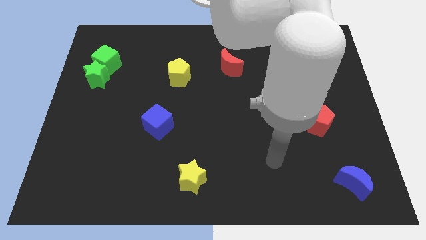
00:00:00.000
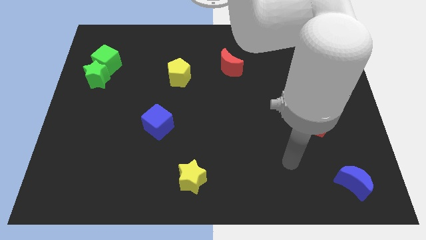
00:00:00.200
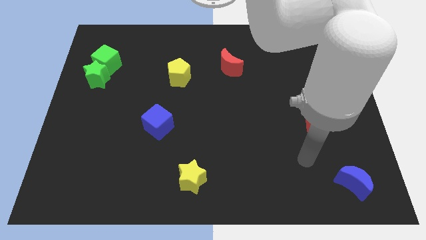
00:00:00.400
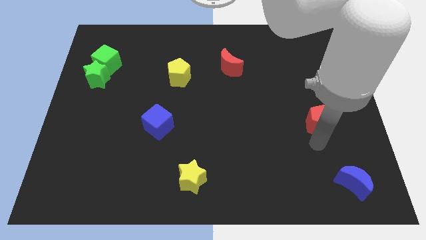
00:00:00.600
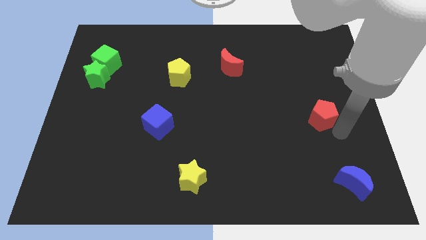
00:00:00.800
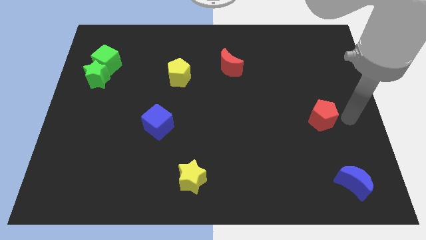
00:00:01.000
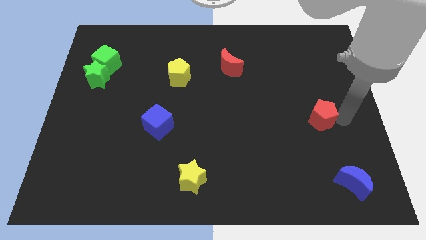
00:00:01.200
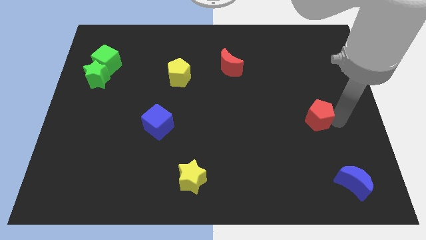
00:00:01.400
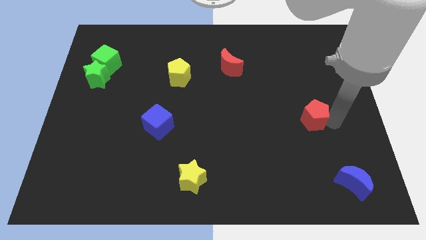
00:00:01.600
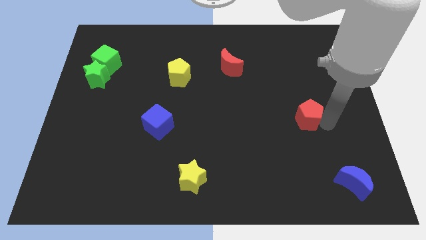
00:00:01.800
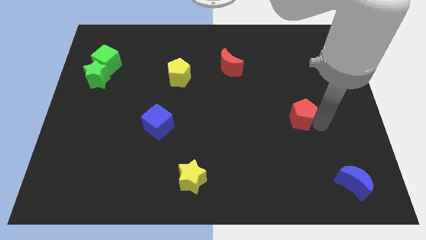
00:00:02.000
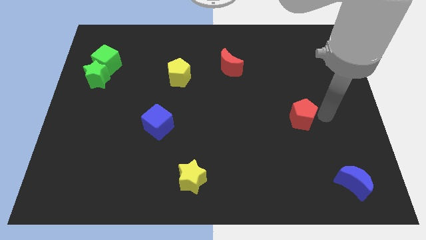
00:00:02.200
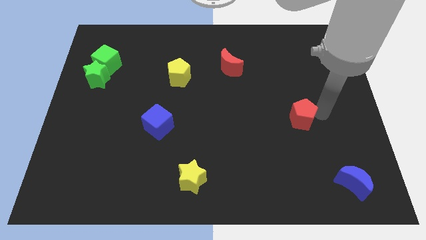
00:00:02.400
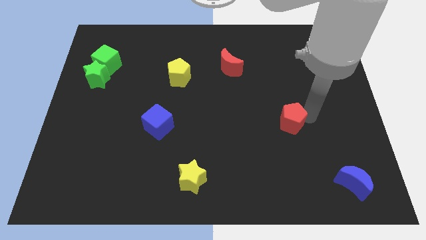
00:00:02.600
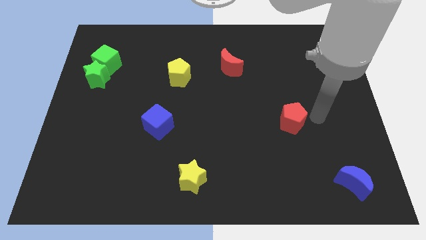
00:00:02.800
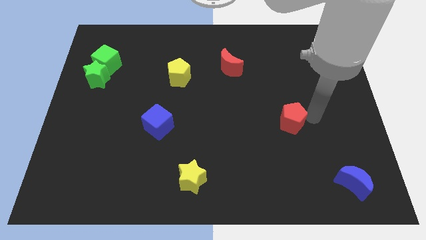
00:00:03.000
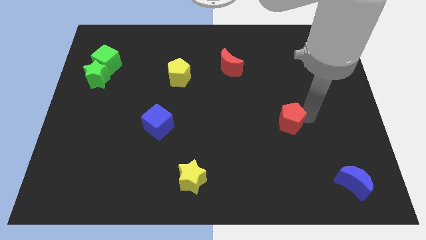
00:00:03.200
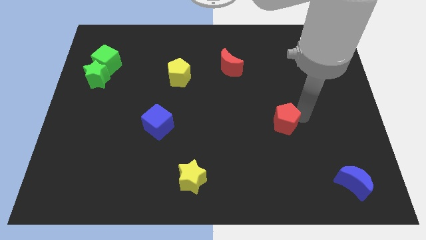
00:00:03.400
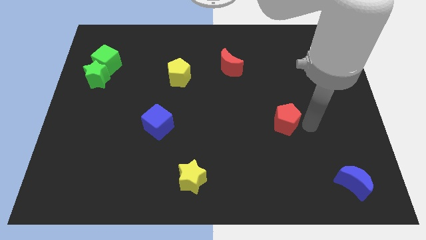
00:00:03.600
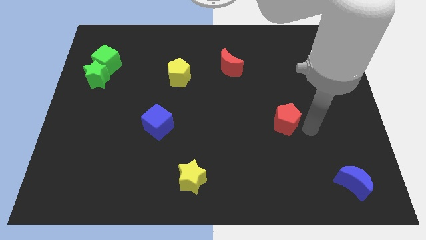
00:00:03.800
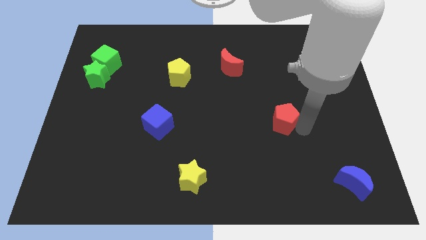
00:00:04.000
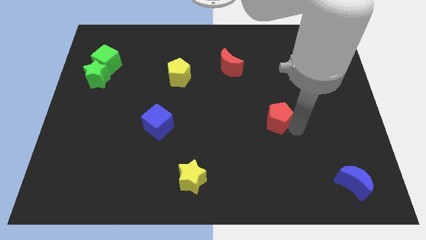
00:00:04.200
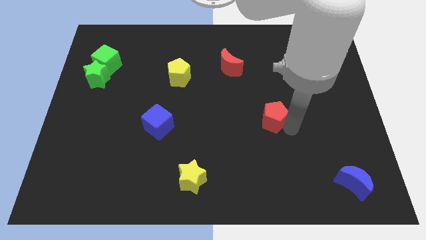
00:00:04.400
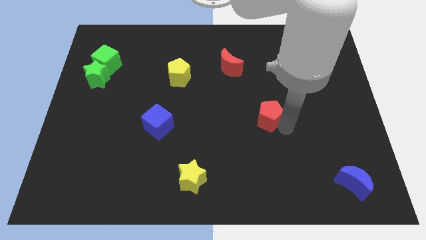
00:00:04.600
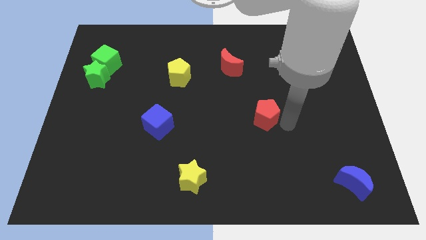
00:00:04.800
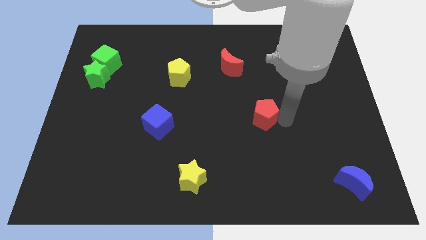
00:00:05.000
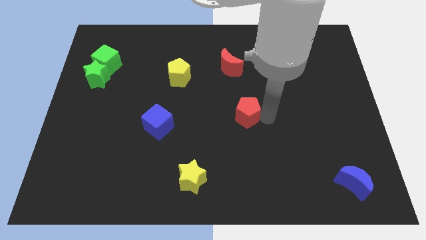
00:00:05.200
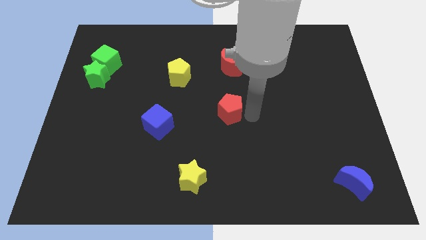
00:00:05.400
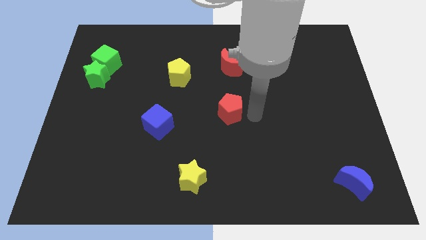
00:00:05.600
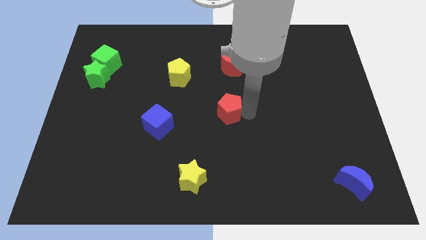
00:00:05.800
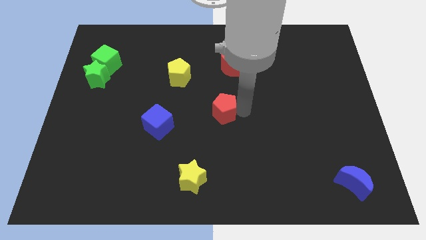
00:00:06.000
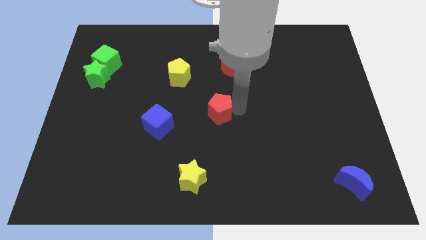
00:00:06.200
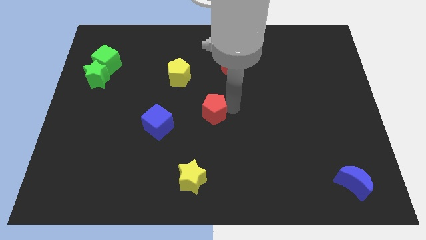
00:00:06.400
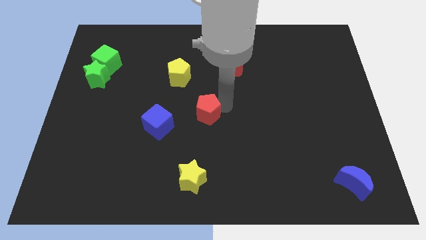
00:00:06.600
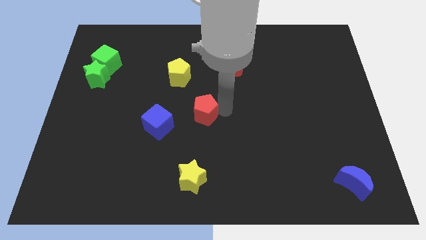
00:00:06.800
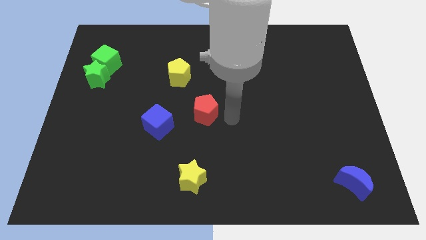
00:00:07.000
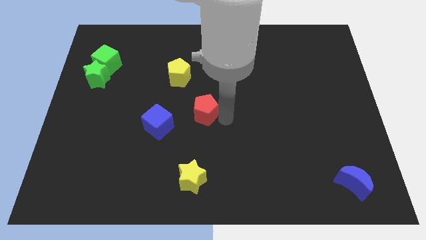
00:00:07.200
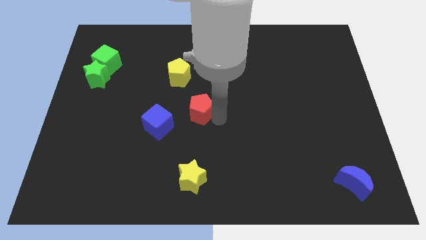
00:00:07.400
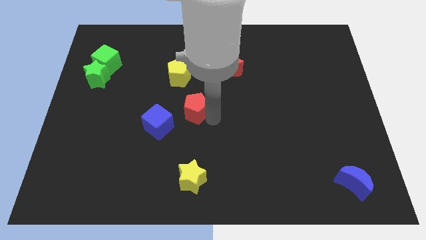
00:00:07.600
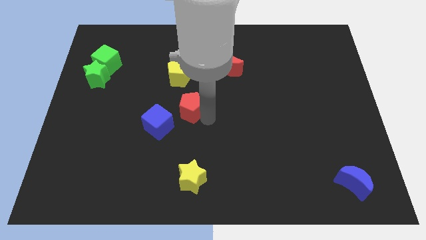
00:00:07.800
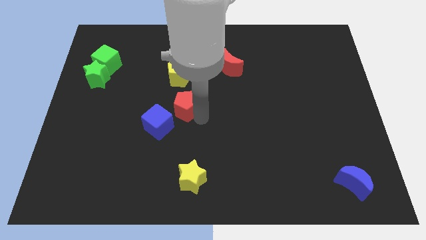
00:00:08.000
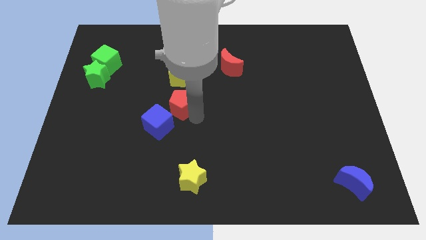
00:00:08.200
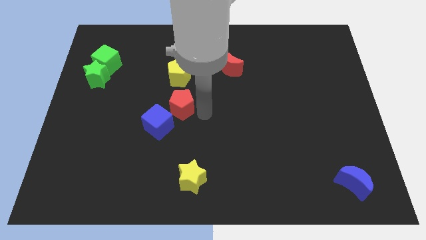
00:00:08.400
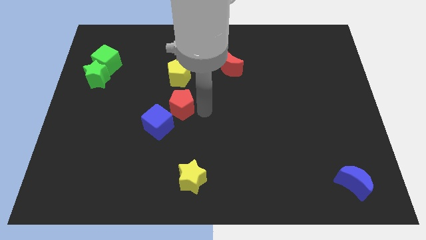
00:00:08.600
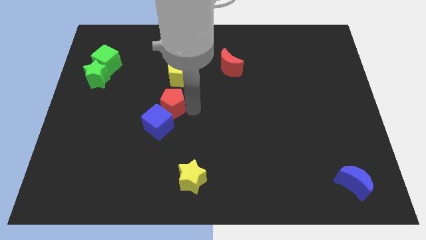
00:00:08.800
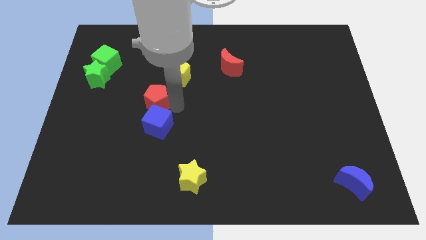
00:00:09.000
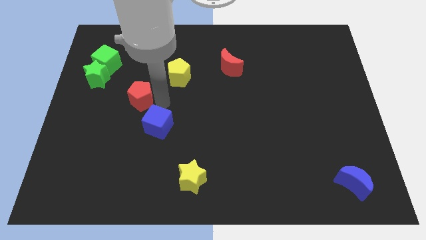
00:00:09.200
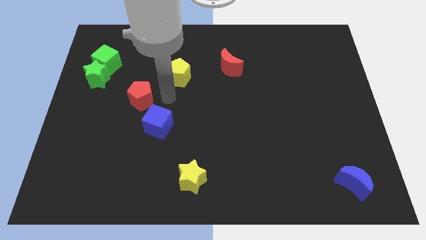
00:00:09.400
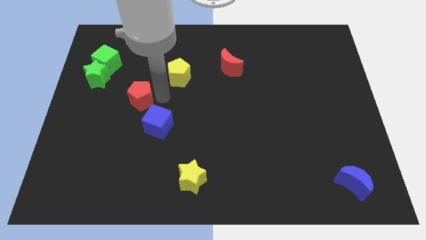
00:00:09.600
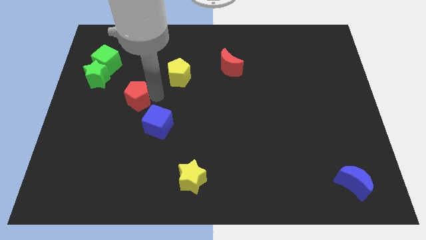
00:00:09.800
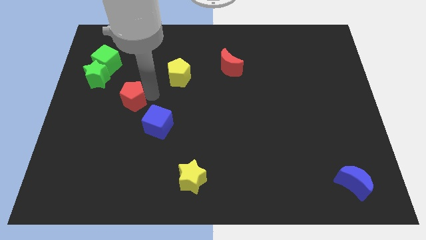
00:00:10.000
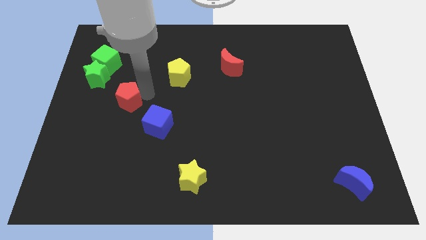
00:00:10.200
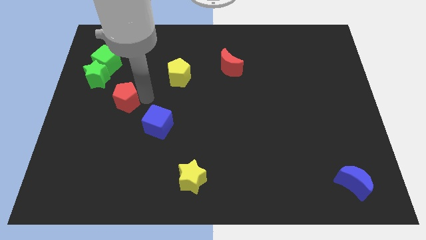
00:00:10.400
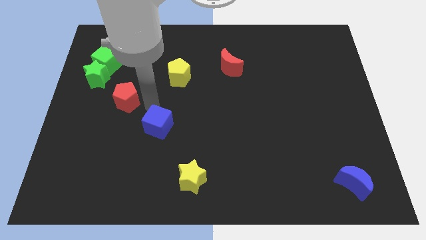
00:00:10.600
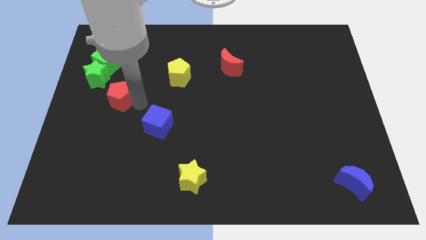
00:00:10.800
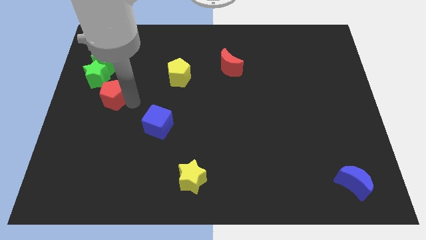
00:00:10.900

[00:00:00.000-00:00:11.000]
push the red pentagon below the green cube

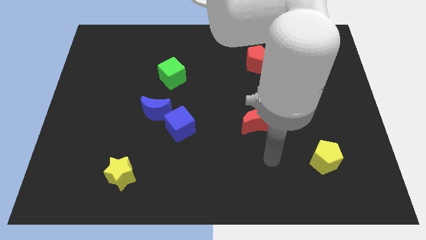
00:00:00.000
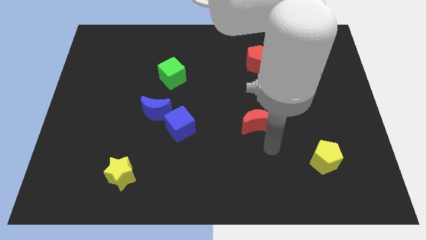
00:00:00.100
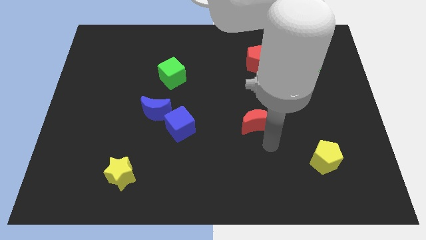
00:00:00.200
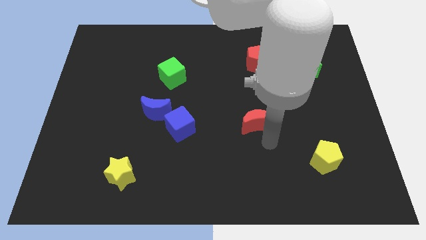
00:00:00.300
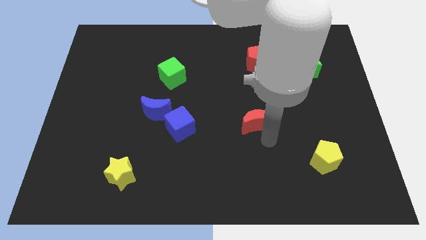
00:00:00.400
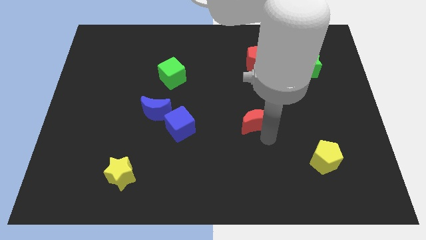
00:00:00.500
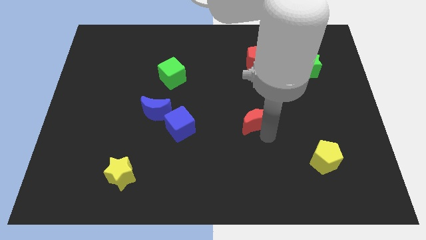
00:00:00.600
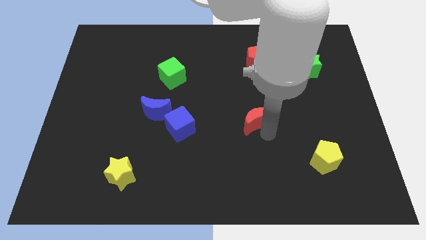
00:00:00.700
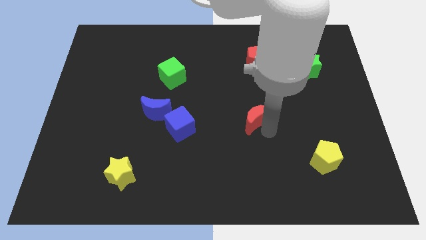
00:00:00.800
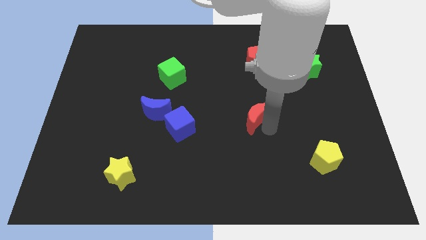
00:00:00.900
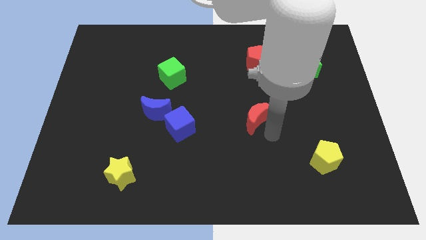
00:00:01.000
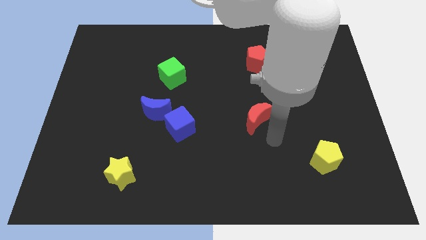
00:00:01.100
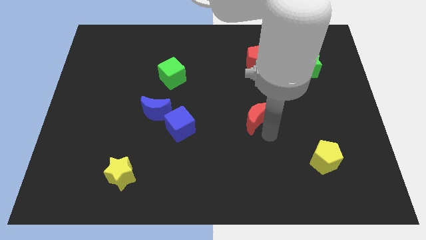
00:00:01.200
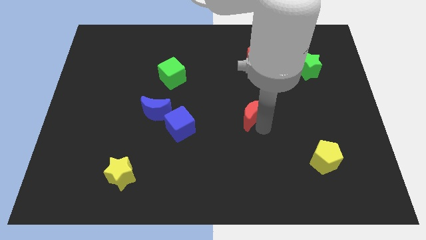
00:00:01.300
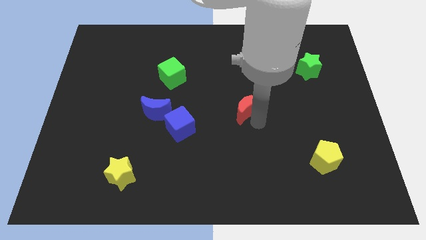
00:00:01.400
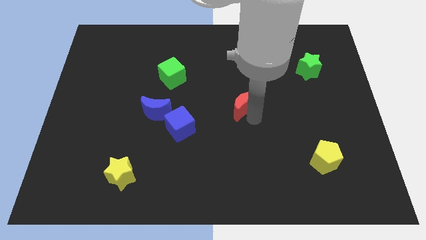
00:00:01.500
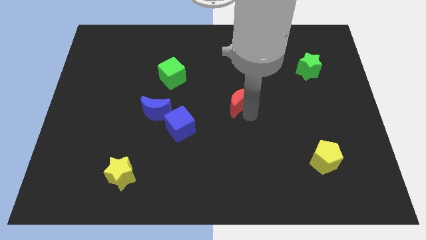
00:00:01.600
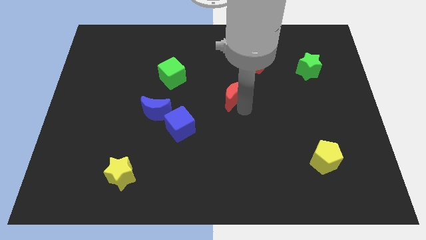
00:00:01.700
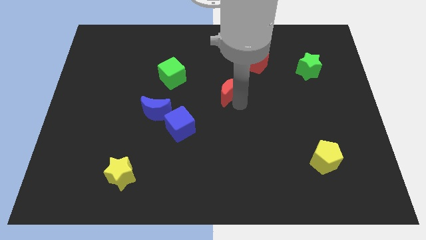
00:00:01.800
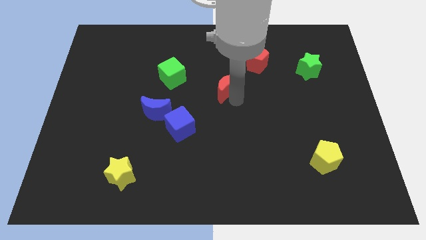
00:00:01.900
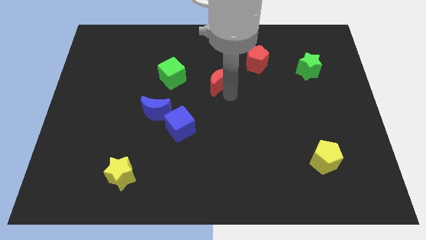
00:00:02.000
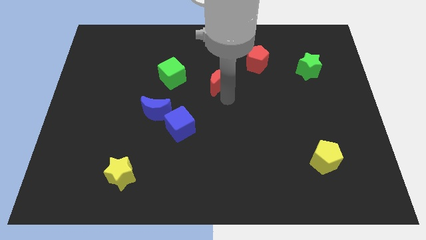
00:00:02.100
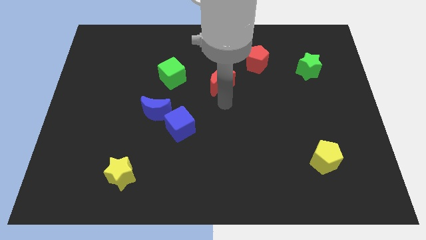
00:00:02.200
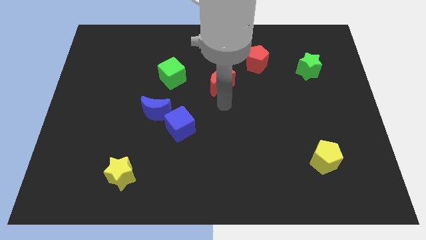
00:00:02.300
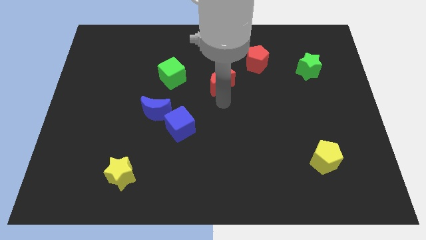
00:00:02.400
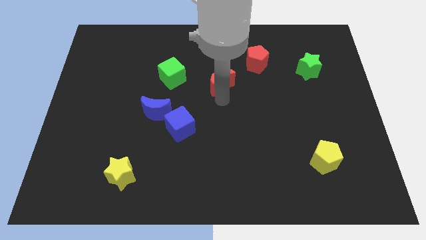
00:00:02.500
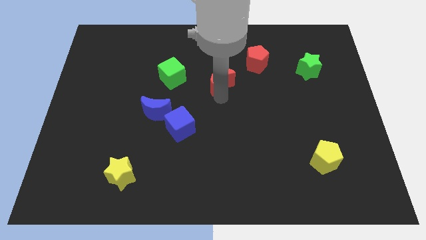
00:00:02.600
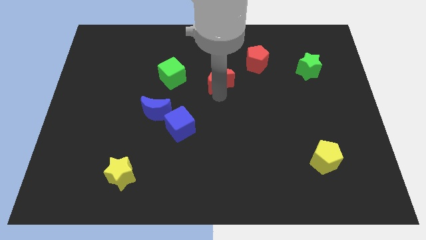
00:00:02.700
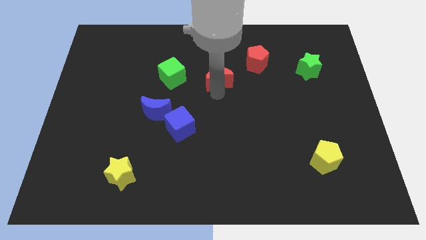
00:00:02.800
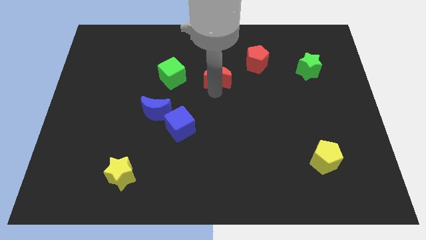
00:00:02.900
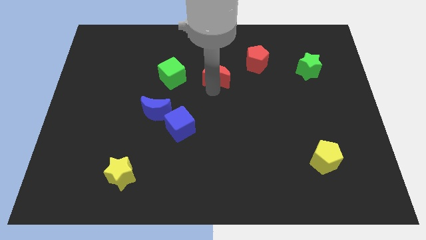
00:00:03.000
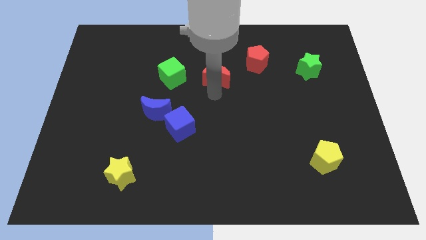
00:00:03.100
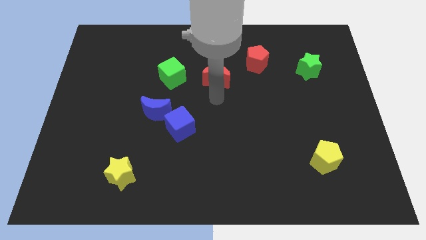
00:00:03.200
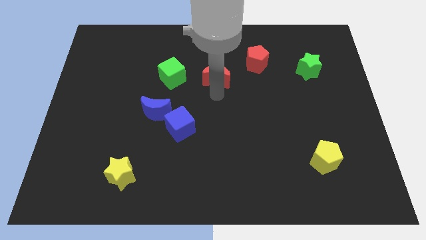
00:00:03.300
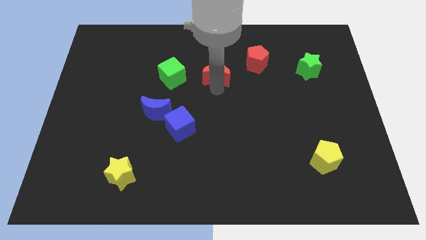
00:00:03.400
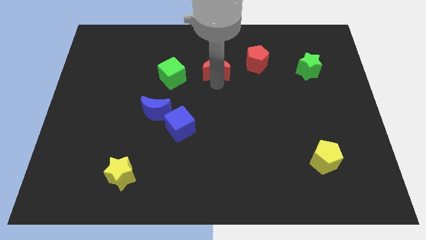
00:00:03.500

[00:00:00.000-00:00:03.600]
move the red moon just left of the red pentagon
